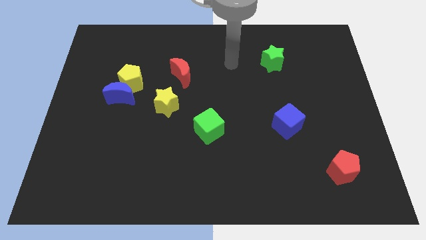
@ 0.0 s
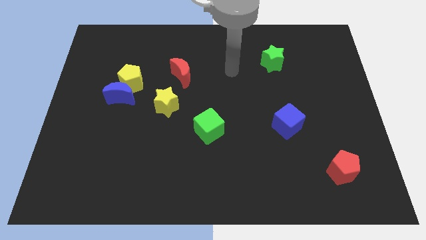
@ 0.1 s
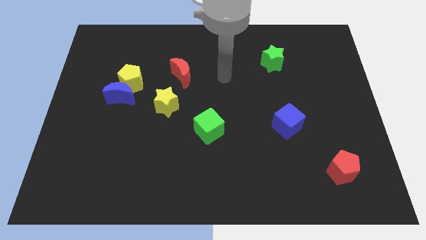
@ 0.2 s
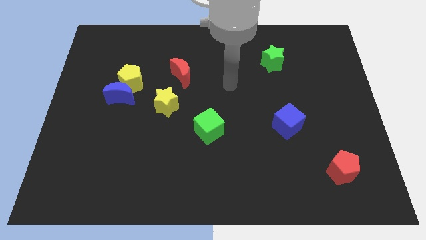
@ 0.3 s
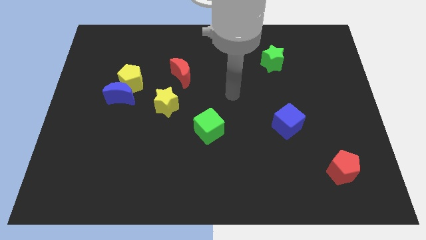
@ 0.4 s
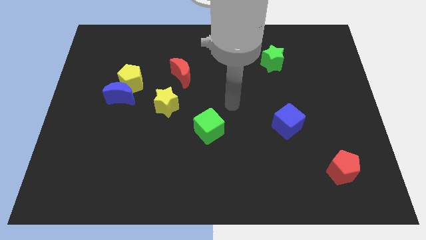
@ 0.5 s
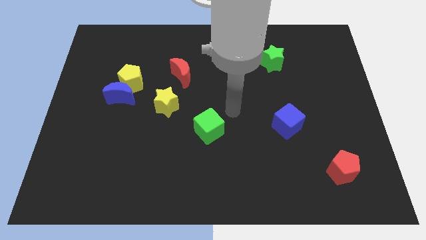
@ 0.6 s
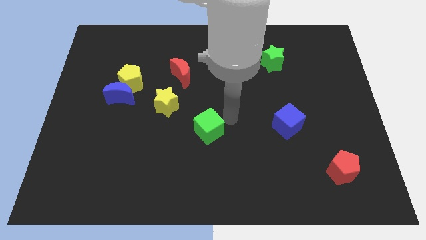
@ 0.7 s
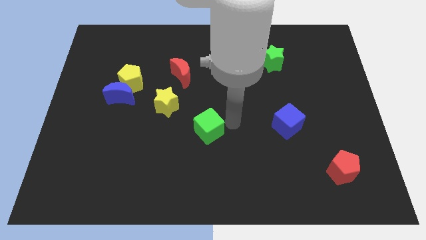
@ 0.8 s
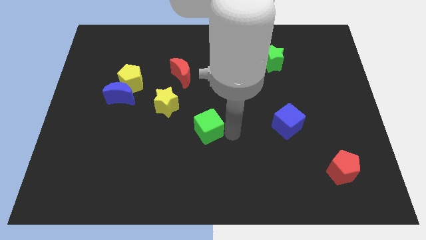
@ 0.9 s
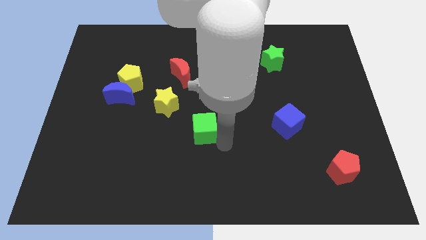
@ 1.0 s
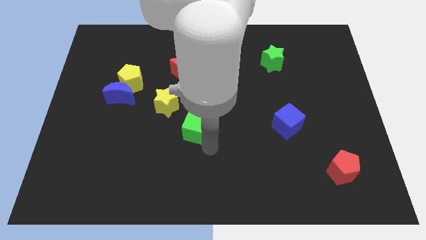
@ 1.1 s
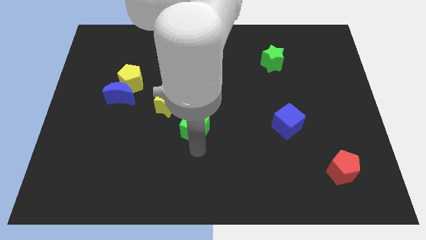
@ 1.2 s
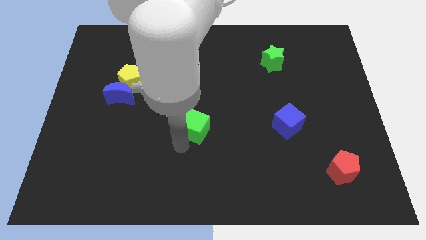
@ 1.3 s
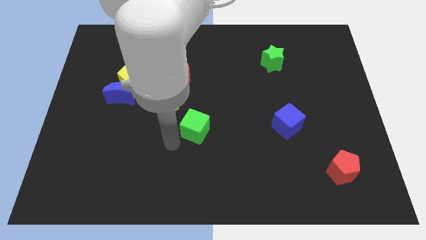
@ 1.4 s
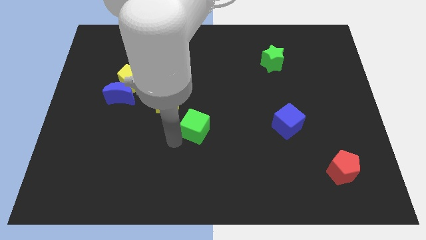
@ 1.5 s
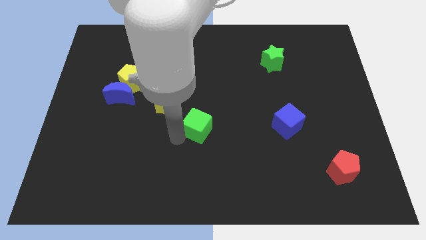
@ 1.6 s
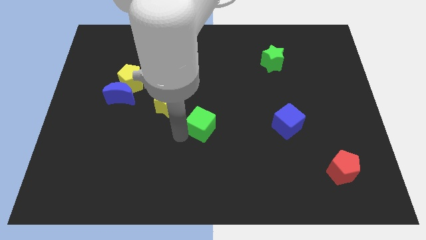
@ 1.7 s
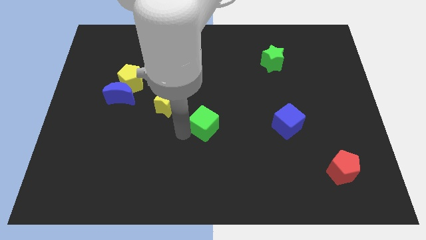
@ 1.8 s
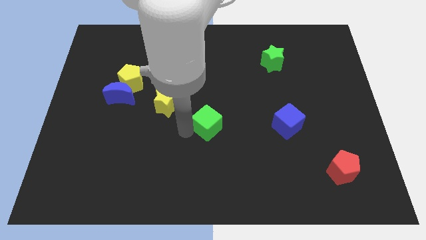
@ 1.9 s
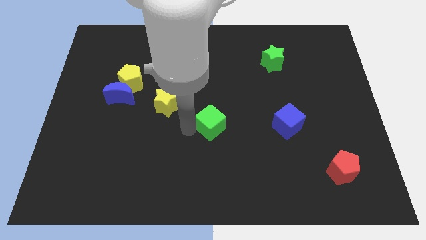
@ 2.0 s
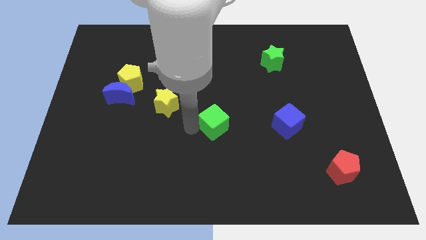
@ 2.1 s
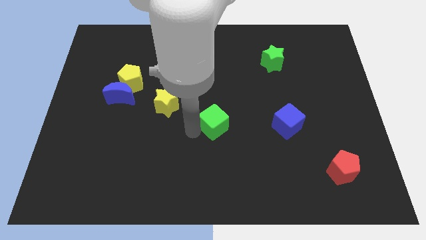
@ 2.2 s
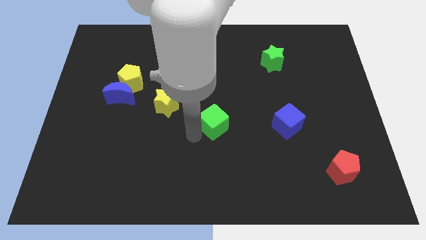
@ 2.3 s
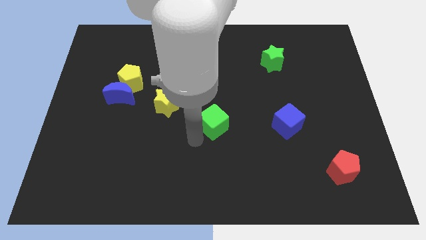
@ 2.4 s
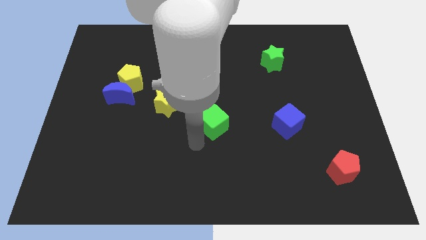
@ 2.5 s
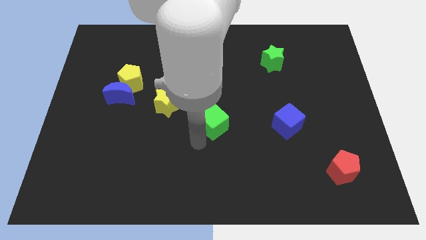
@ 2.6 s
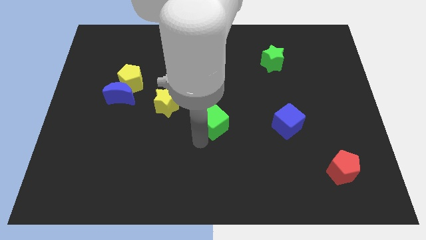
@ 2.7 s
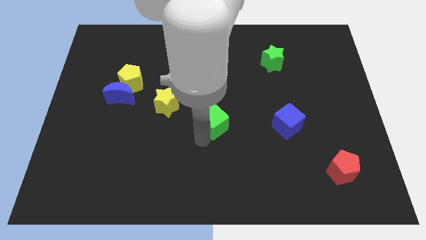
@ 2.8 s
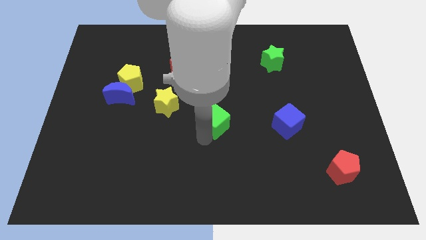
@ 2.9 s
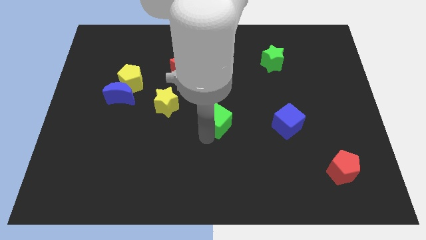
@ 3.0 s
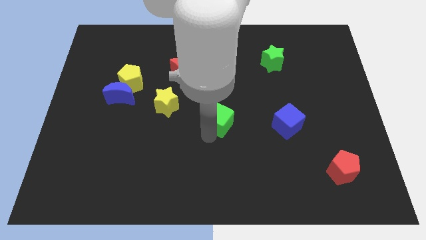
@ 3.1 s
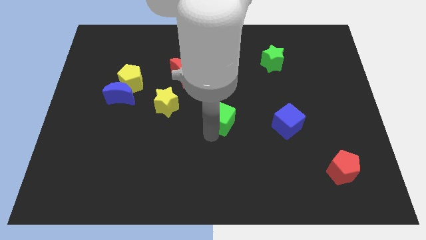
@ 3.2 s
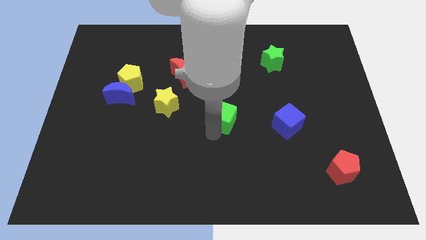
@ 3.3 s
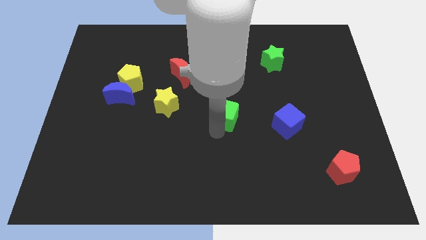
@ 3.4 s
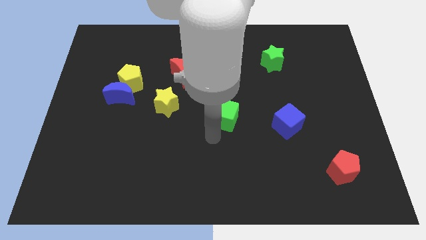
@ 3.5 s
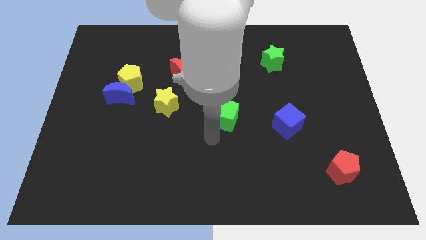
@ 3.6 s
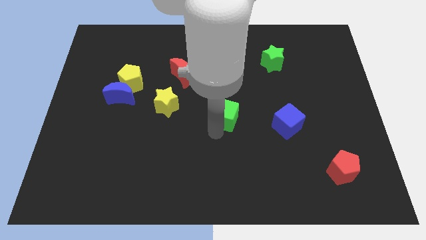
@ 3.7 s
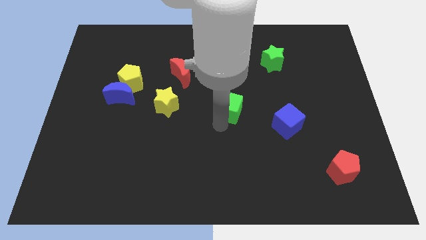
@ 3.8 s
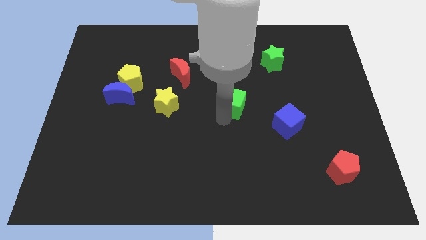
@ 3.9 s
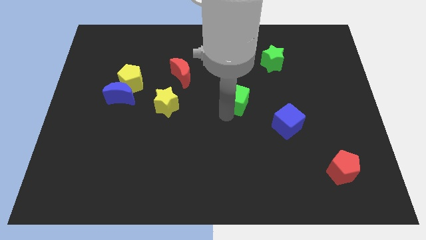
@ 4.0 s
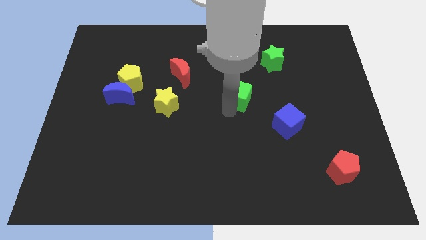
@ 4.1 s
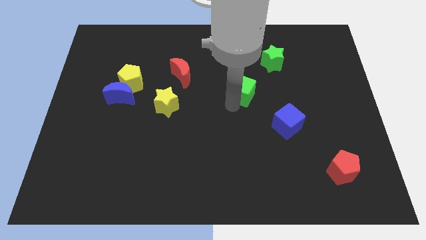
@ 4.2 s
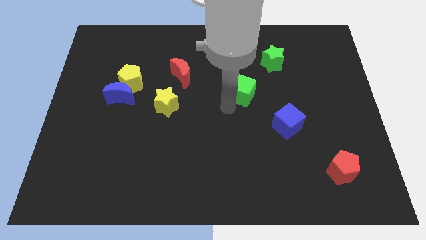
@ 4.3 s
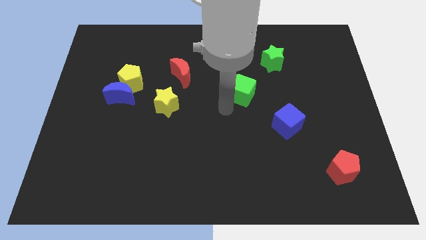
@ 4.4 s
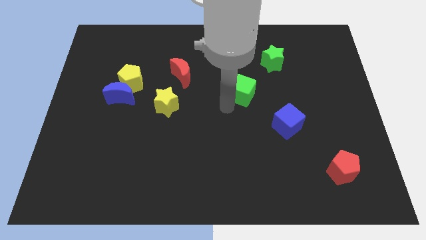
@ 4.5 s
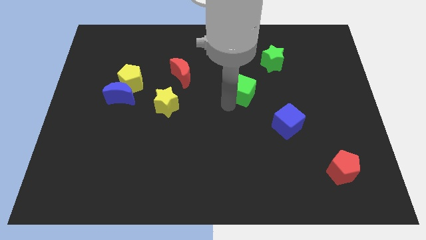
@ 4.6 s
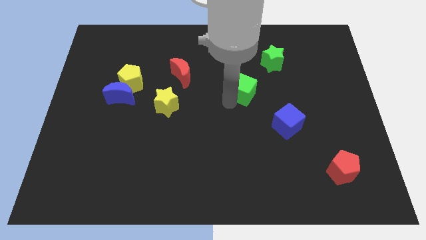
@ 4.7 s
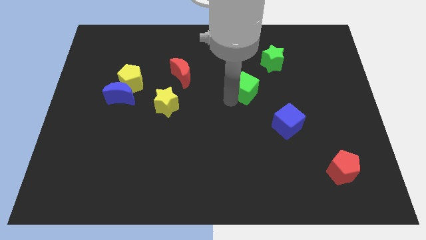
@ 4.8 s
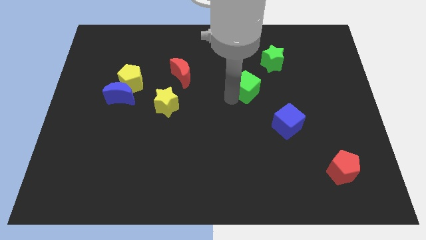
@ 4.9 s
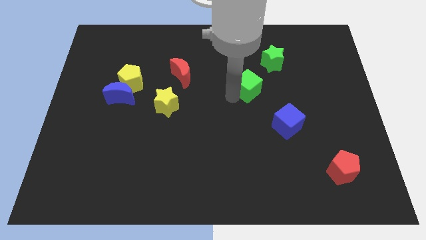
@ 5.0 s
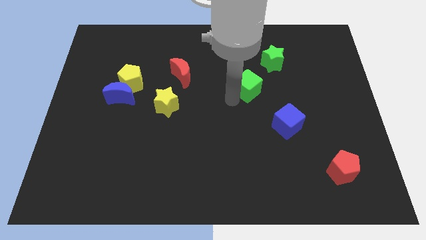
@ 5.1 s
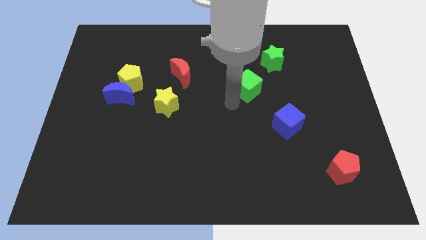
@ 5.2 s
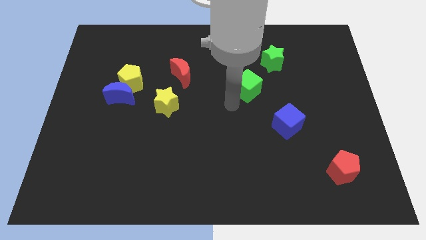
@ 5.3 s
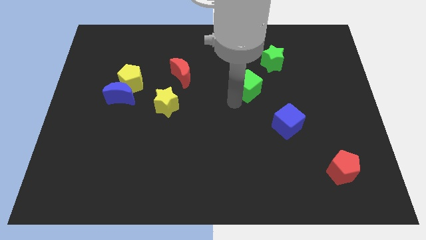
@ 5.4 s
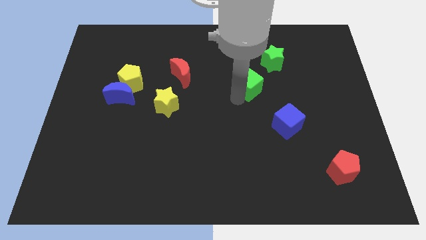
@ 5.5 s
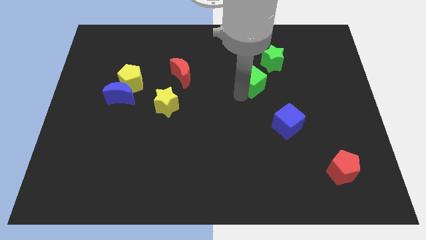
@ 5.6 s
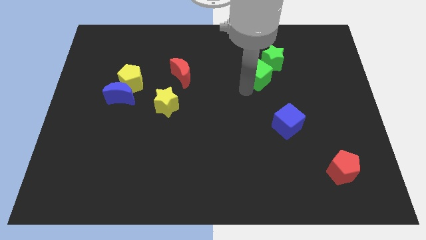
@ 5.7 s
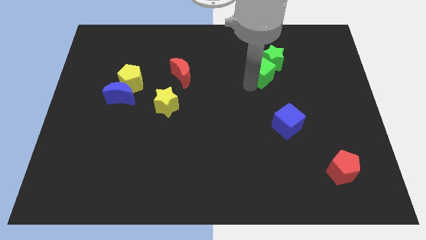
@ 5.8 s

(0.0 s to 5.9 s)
put the green cube towards the green star

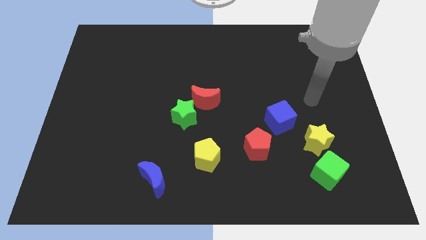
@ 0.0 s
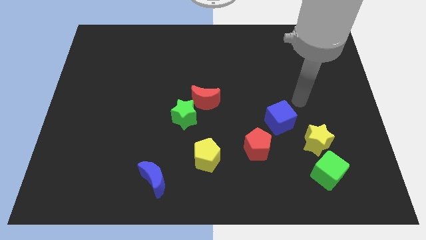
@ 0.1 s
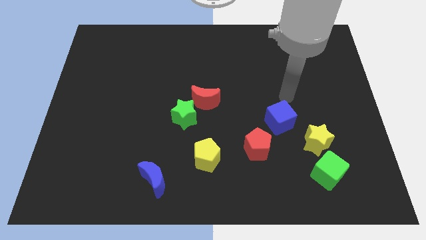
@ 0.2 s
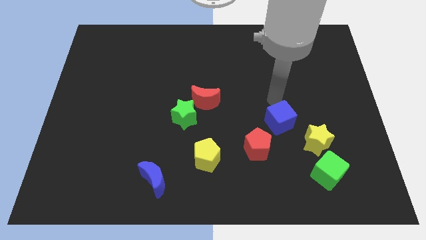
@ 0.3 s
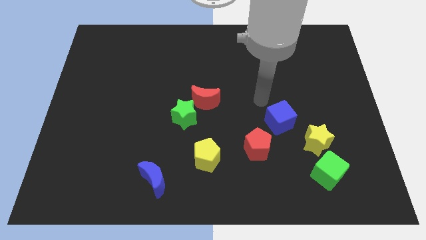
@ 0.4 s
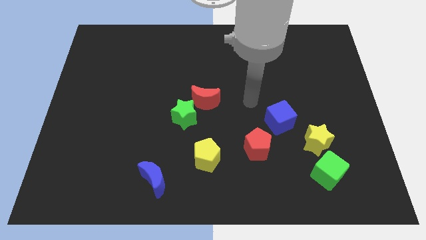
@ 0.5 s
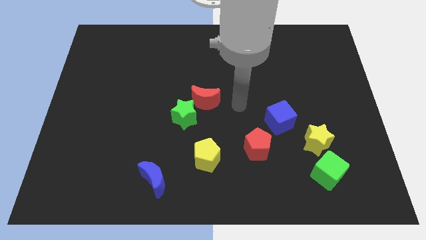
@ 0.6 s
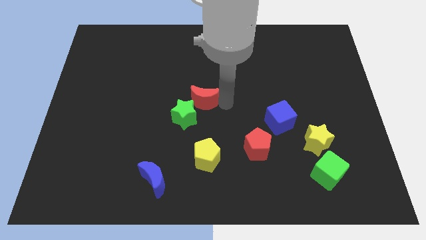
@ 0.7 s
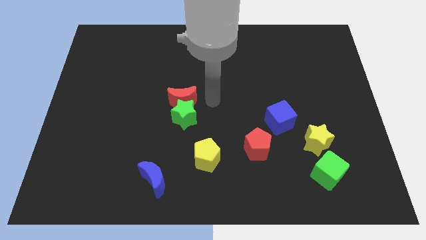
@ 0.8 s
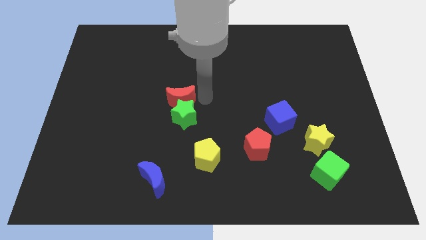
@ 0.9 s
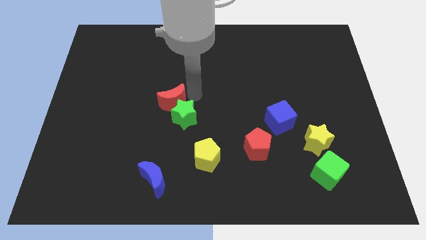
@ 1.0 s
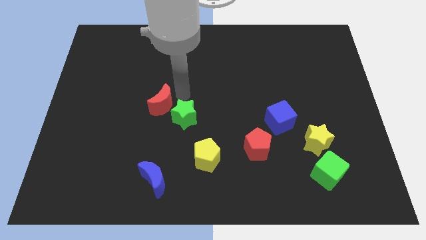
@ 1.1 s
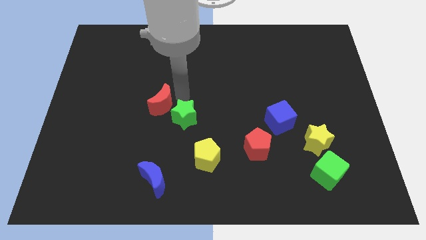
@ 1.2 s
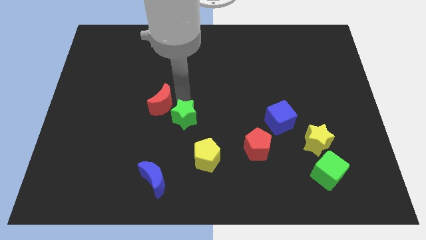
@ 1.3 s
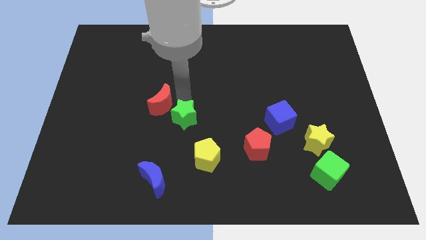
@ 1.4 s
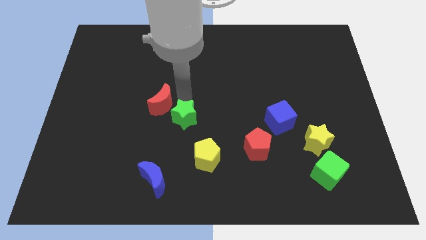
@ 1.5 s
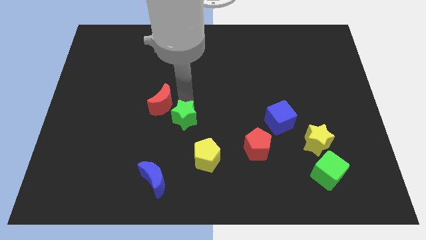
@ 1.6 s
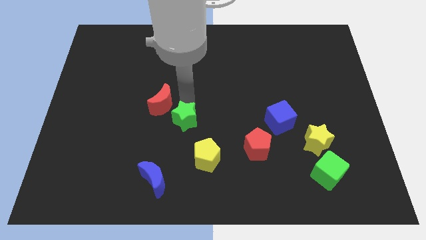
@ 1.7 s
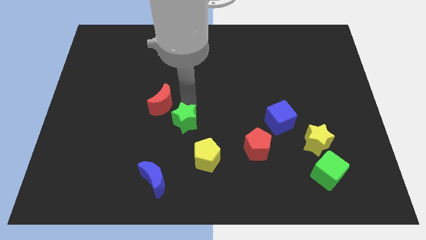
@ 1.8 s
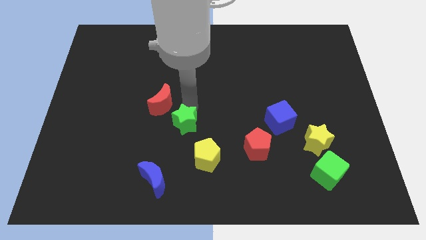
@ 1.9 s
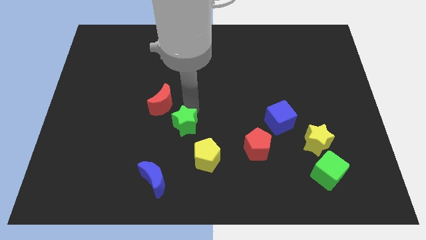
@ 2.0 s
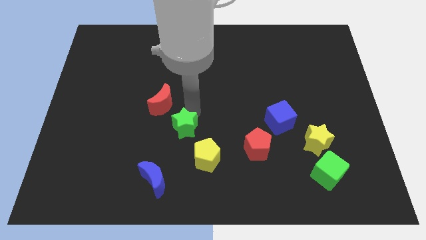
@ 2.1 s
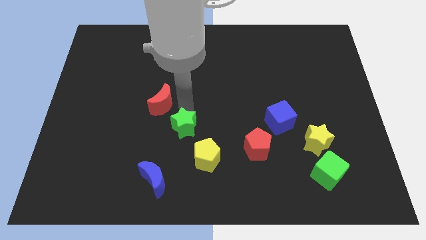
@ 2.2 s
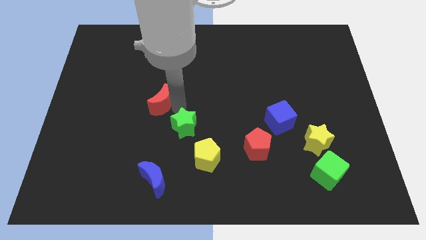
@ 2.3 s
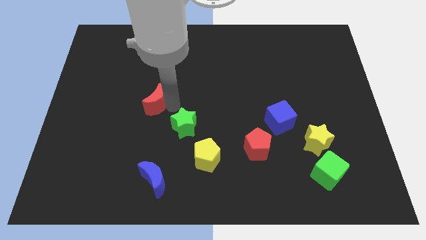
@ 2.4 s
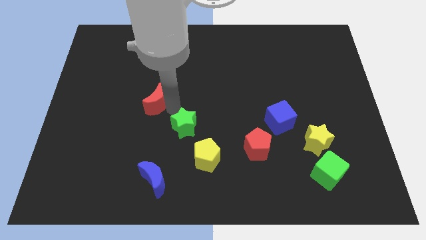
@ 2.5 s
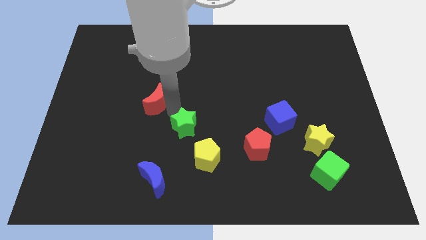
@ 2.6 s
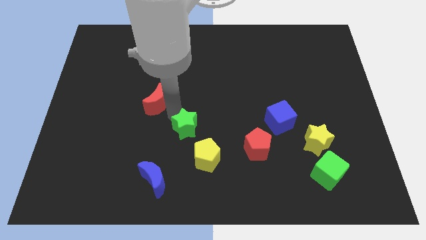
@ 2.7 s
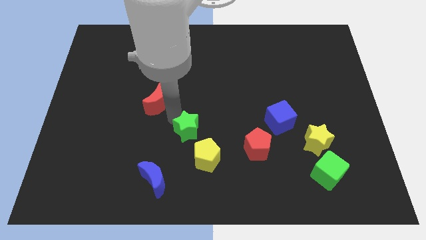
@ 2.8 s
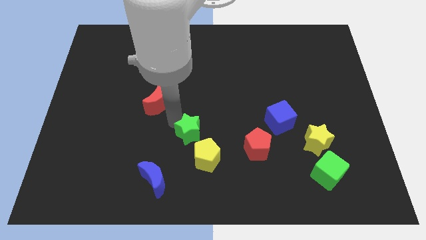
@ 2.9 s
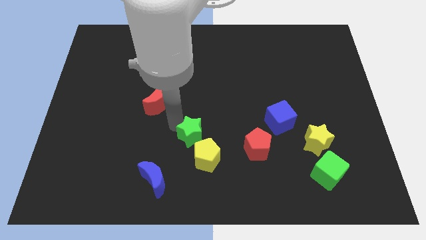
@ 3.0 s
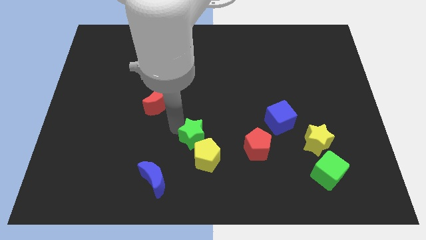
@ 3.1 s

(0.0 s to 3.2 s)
move the green star next to the yellow pentagon
